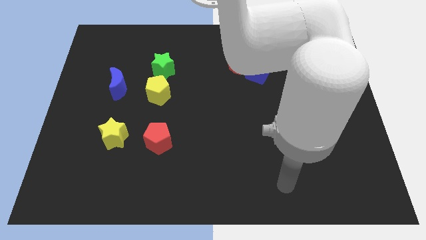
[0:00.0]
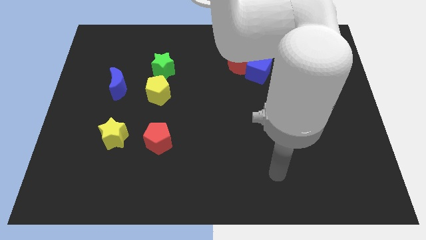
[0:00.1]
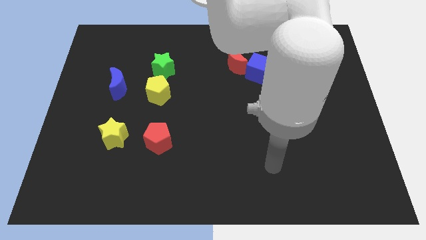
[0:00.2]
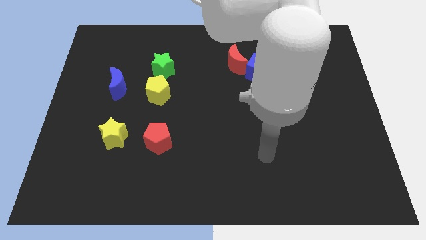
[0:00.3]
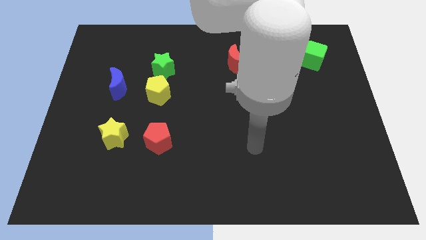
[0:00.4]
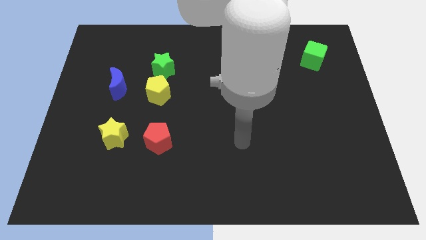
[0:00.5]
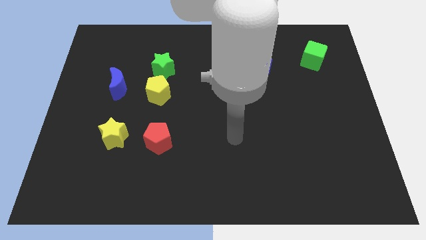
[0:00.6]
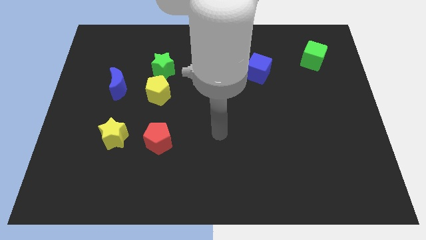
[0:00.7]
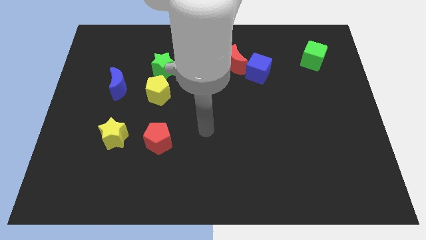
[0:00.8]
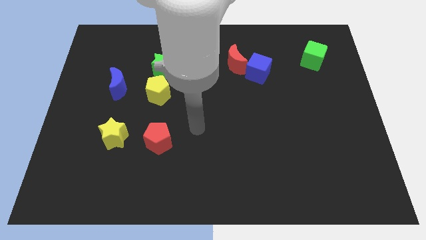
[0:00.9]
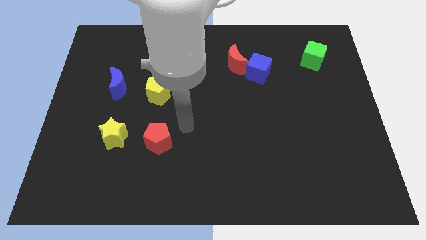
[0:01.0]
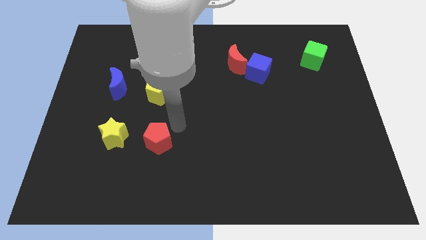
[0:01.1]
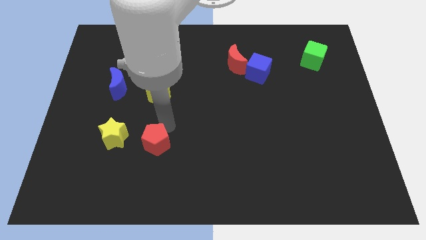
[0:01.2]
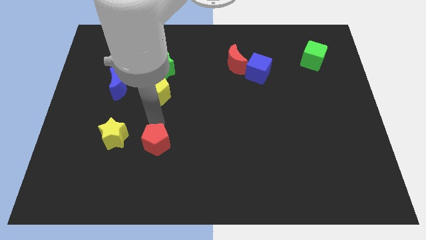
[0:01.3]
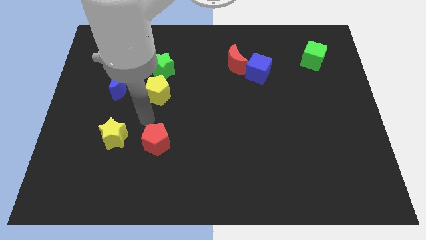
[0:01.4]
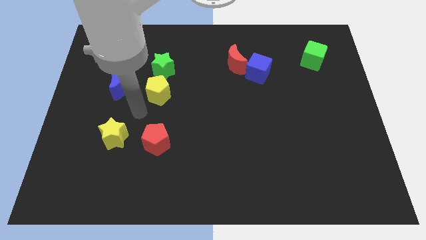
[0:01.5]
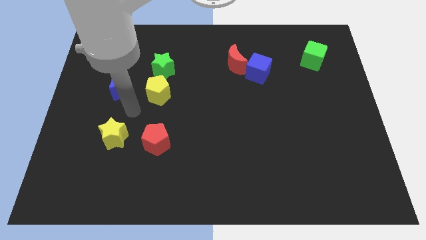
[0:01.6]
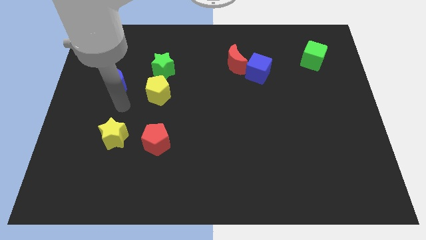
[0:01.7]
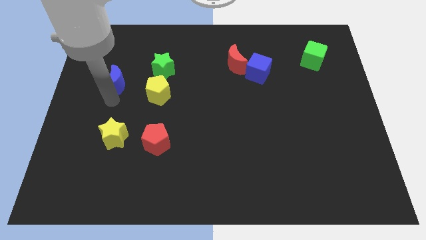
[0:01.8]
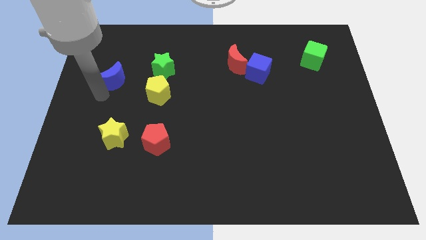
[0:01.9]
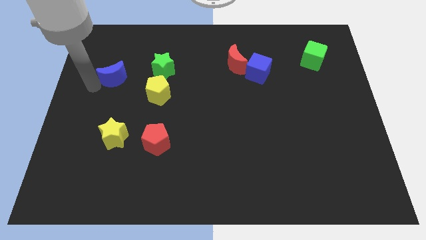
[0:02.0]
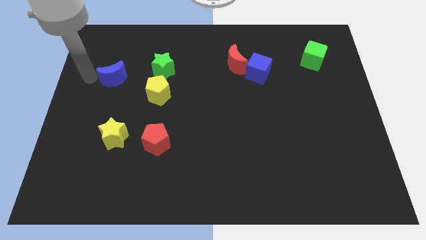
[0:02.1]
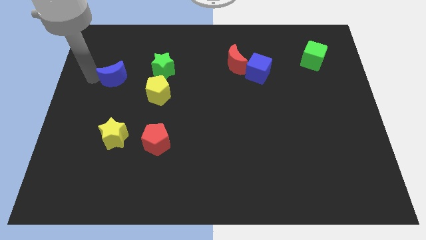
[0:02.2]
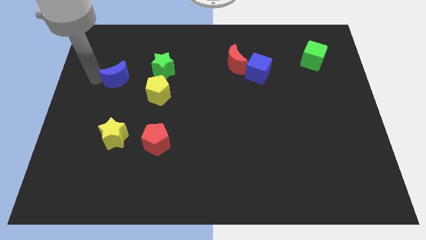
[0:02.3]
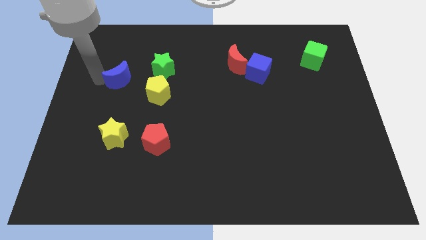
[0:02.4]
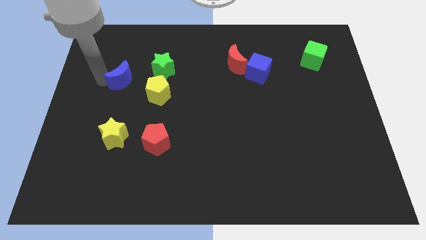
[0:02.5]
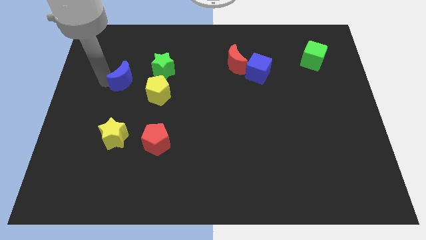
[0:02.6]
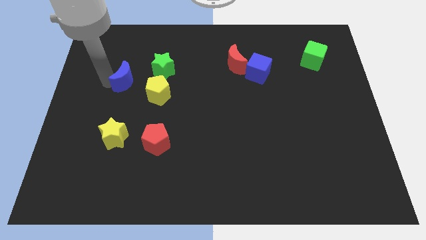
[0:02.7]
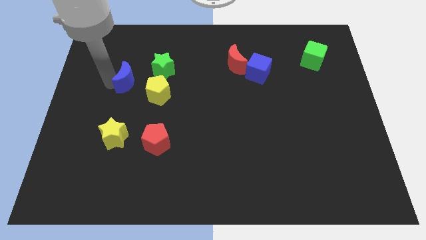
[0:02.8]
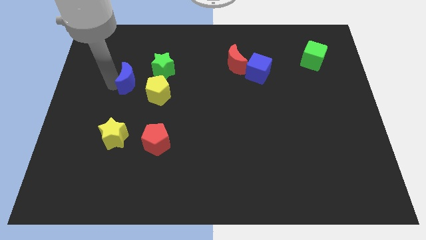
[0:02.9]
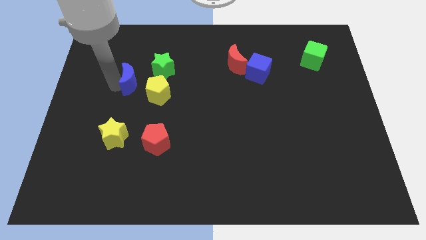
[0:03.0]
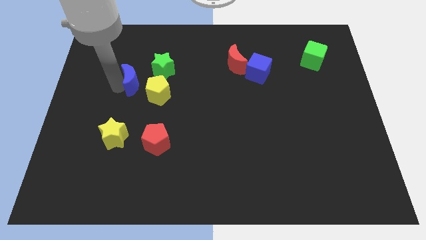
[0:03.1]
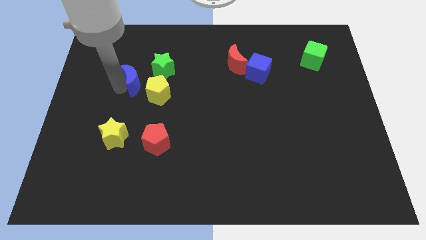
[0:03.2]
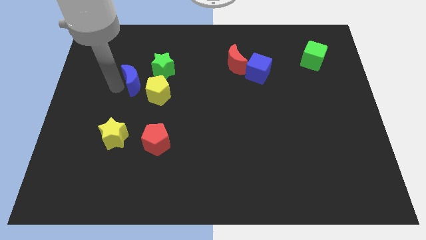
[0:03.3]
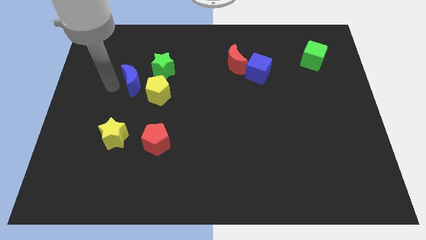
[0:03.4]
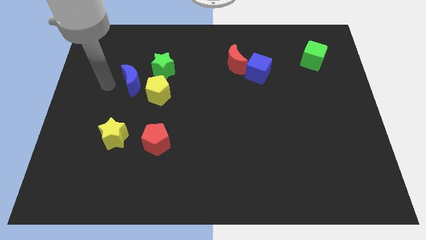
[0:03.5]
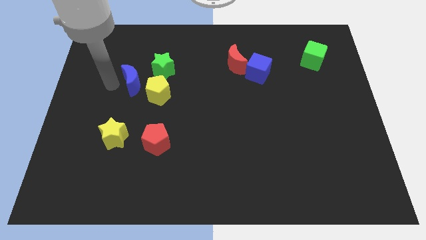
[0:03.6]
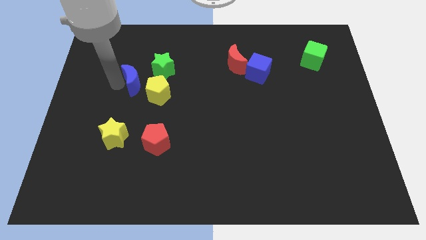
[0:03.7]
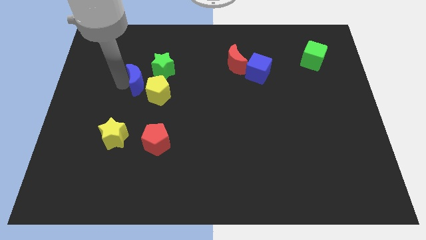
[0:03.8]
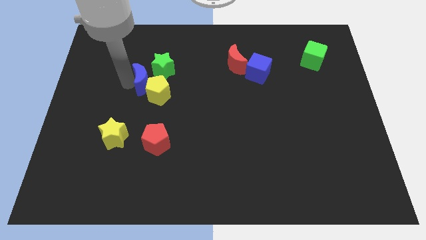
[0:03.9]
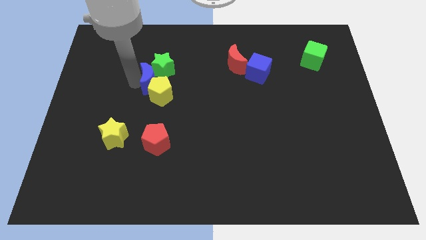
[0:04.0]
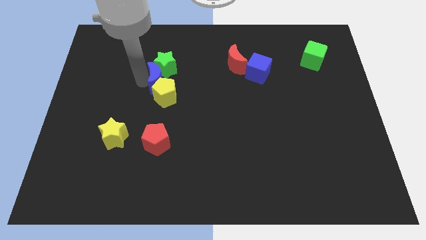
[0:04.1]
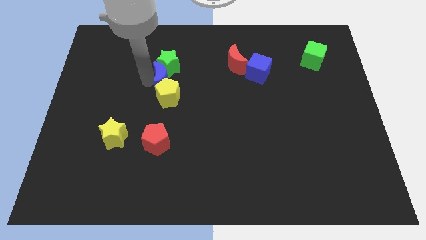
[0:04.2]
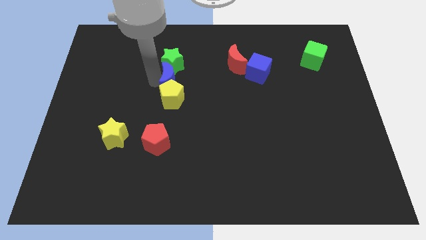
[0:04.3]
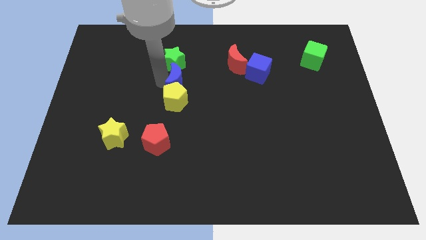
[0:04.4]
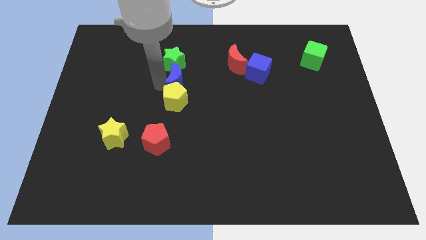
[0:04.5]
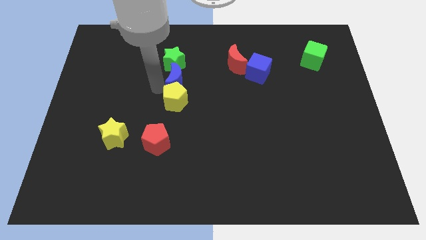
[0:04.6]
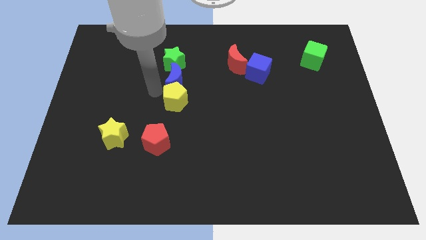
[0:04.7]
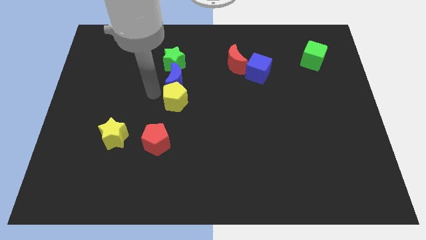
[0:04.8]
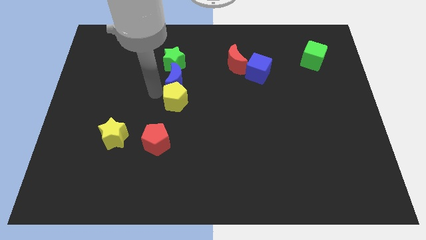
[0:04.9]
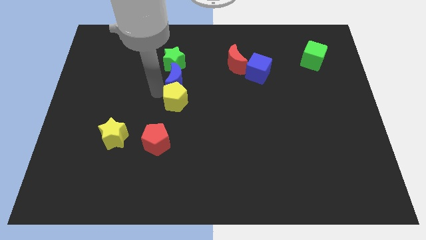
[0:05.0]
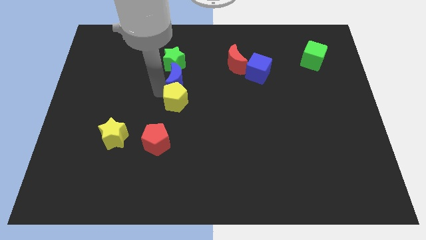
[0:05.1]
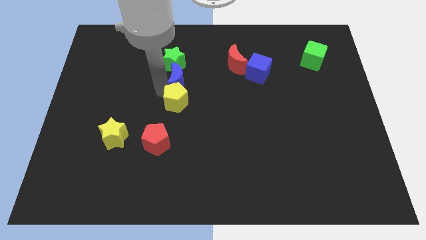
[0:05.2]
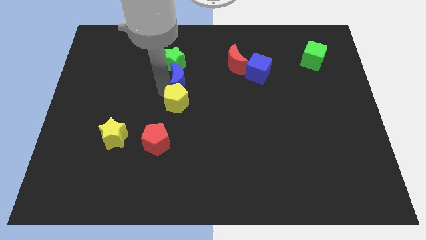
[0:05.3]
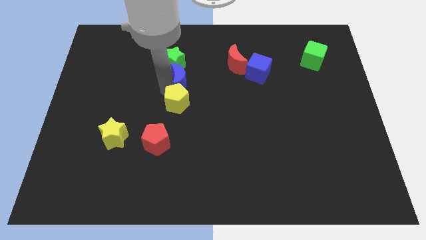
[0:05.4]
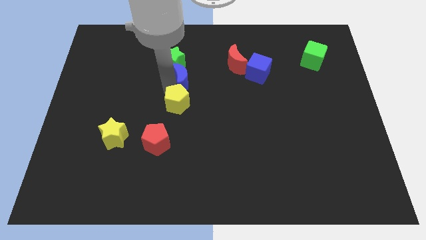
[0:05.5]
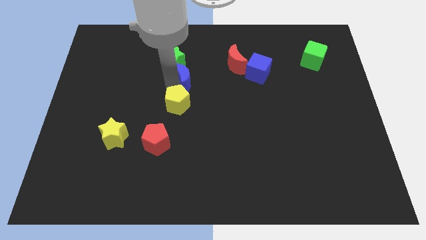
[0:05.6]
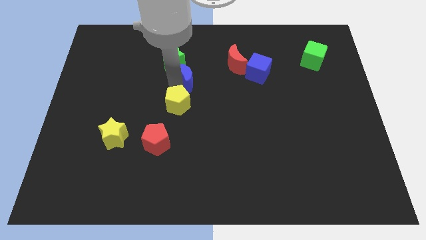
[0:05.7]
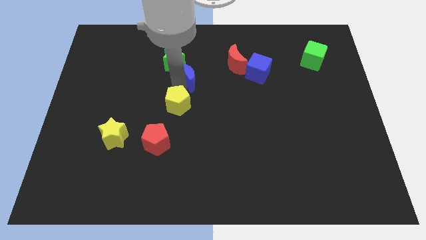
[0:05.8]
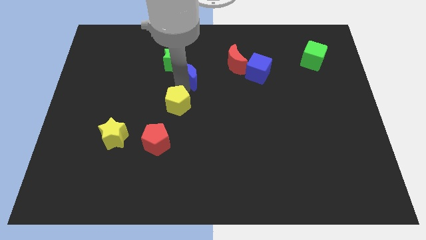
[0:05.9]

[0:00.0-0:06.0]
move the blue moon just left of the red moon

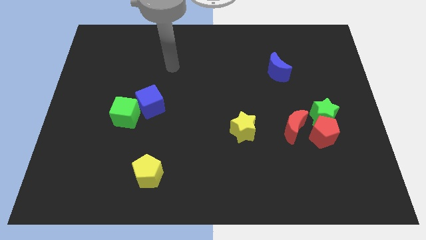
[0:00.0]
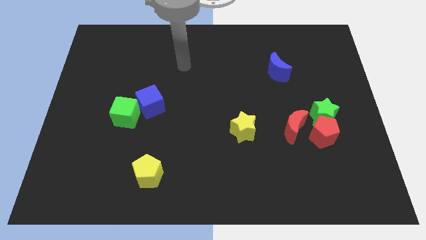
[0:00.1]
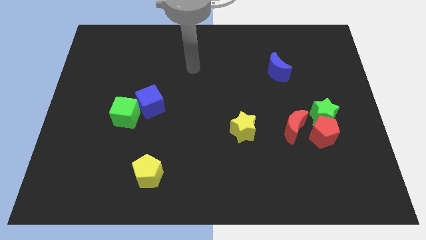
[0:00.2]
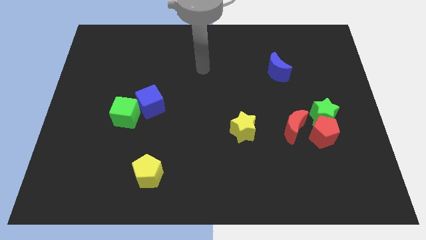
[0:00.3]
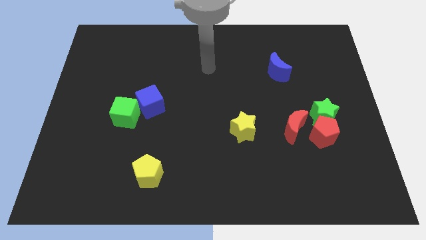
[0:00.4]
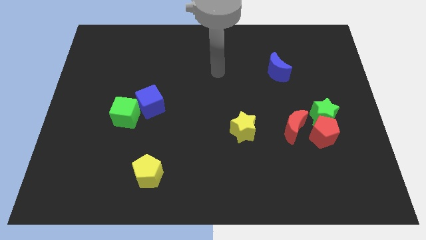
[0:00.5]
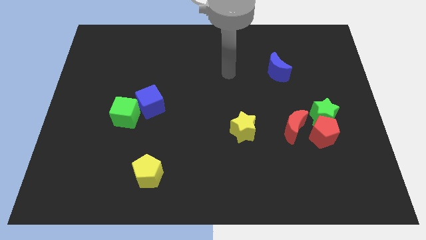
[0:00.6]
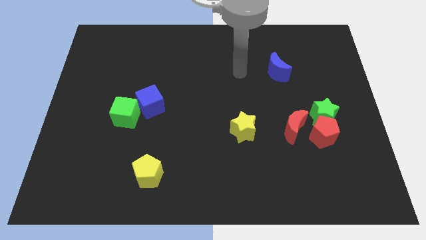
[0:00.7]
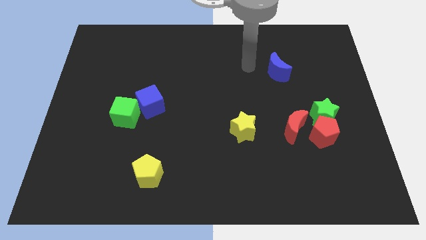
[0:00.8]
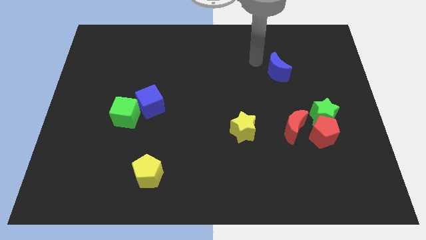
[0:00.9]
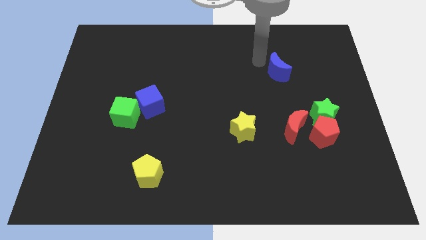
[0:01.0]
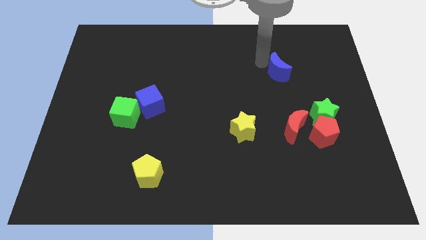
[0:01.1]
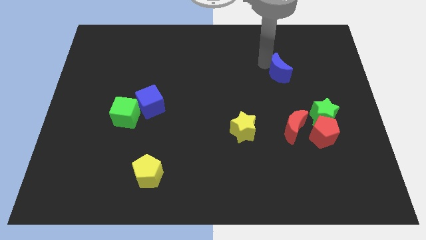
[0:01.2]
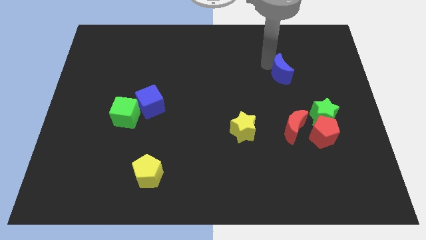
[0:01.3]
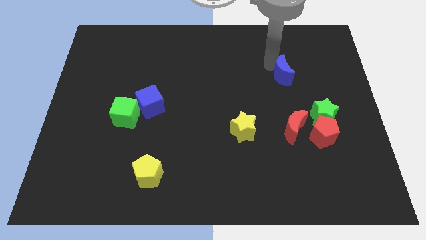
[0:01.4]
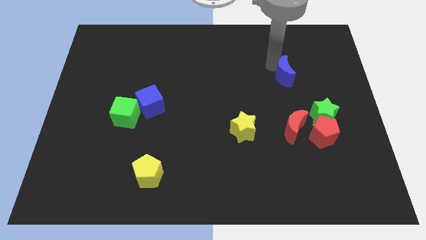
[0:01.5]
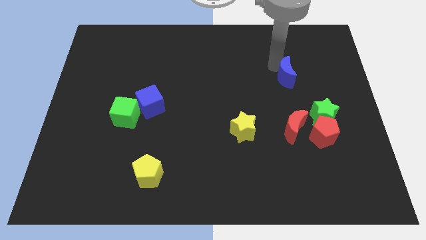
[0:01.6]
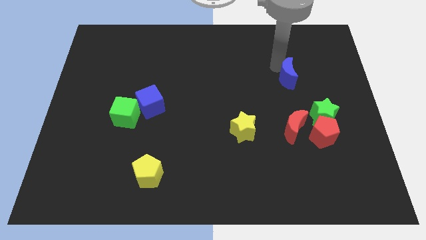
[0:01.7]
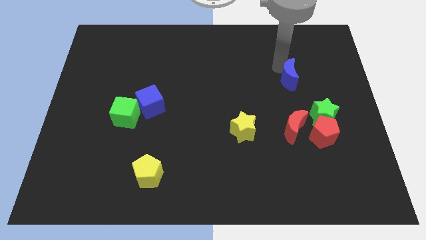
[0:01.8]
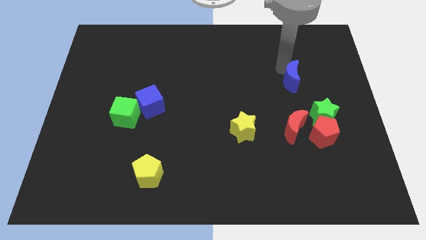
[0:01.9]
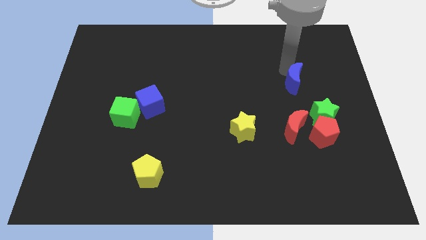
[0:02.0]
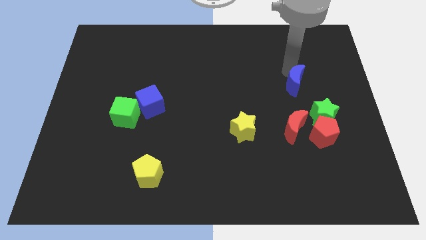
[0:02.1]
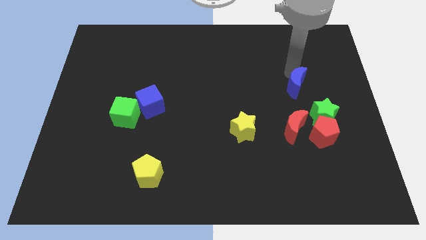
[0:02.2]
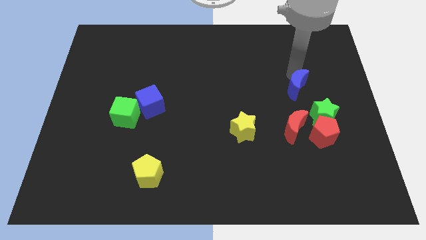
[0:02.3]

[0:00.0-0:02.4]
push the blue moon above the red pentagon
